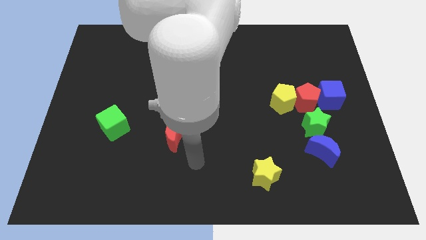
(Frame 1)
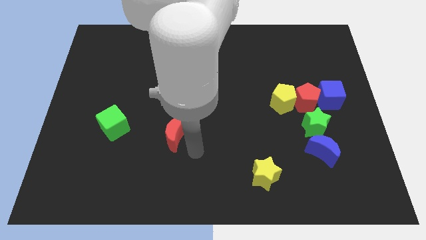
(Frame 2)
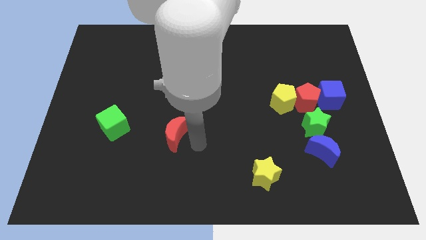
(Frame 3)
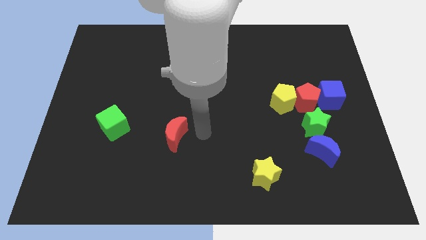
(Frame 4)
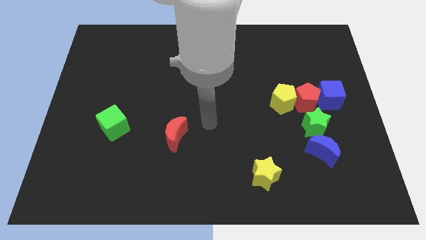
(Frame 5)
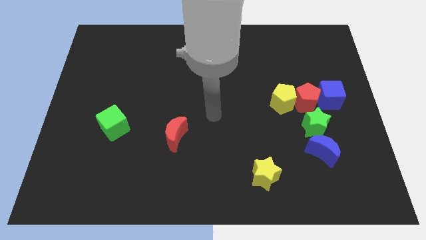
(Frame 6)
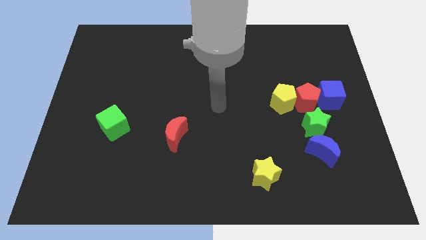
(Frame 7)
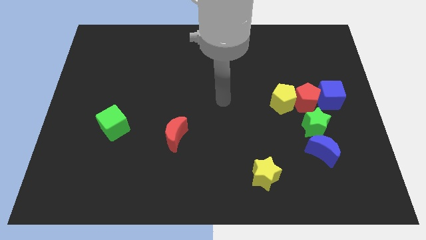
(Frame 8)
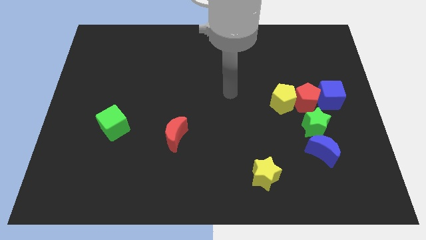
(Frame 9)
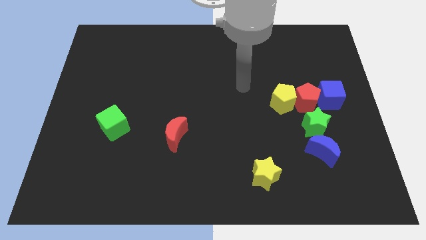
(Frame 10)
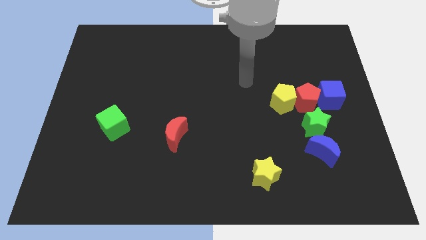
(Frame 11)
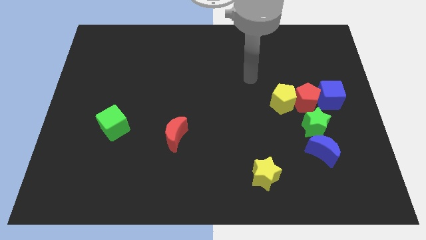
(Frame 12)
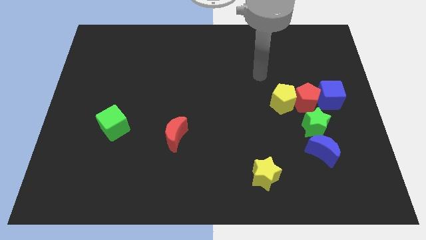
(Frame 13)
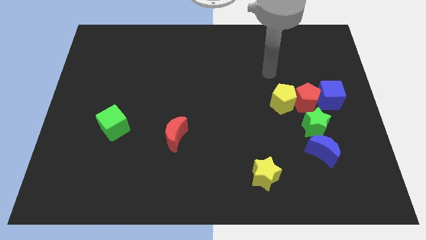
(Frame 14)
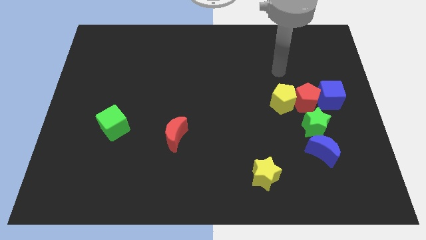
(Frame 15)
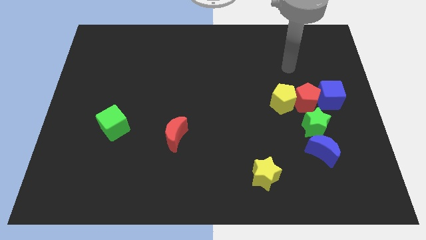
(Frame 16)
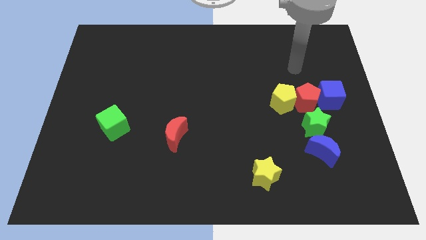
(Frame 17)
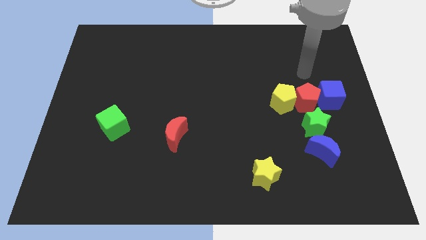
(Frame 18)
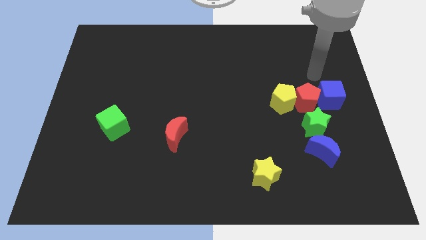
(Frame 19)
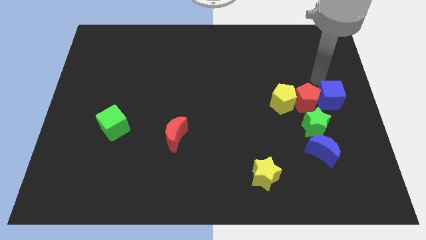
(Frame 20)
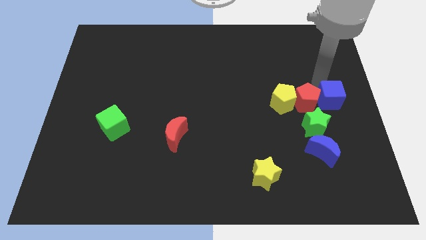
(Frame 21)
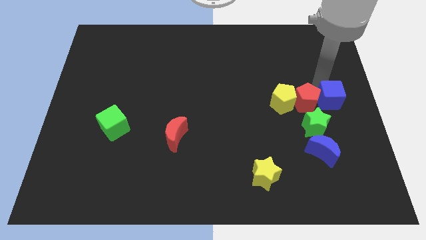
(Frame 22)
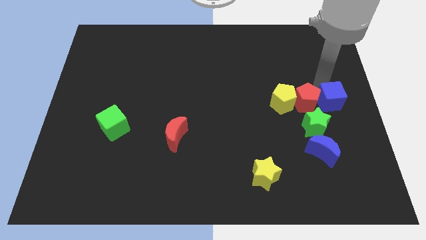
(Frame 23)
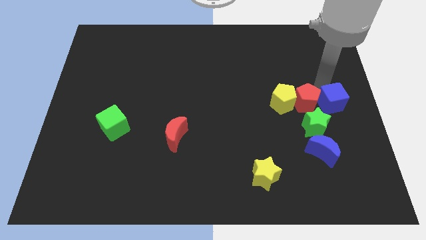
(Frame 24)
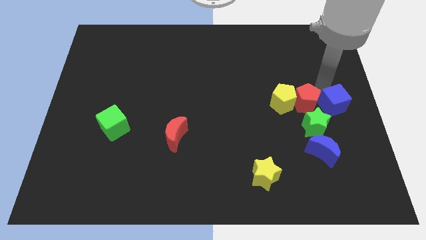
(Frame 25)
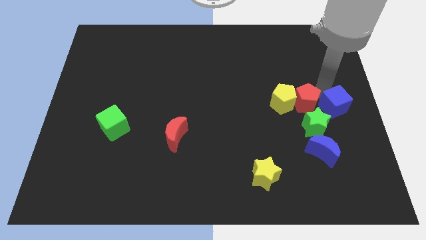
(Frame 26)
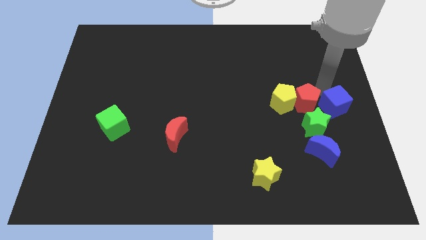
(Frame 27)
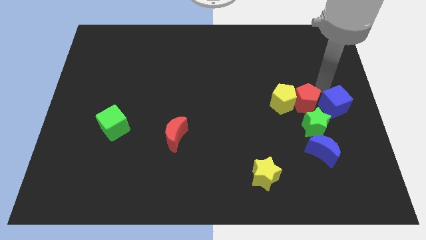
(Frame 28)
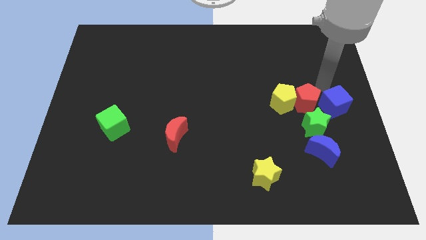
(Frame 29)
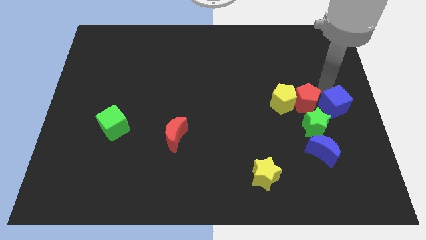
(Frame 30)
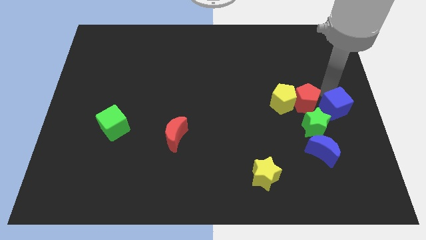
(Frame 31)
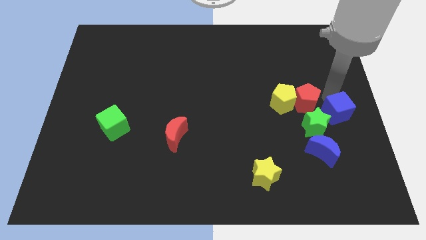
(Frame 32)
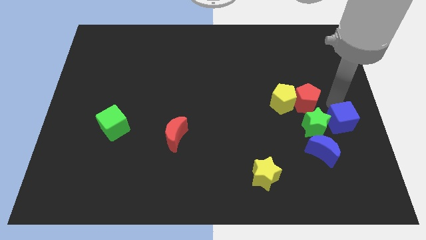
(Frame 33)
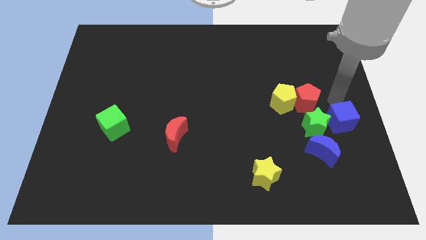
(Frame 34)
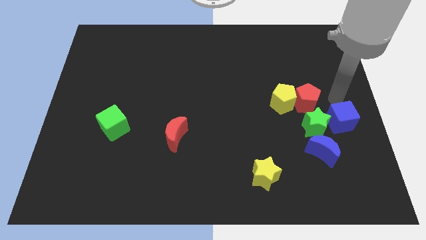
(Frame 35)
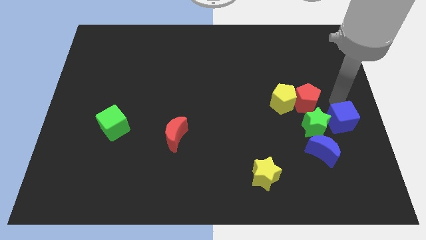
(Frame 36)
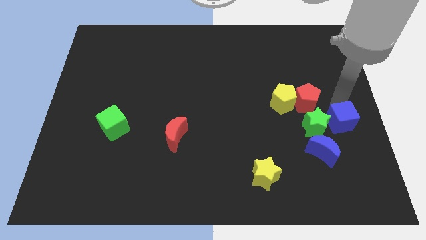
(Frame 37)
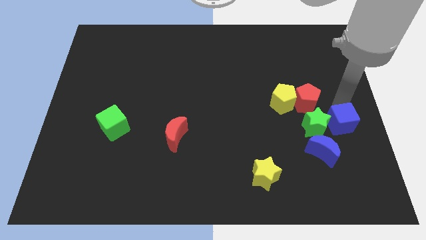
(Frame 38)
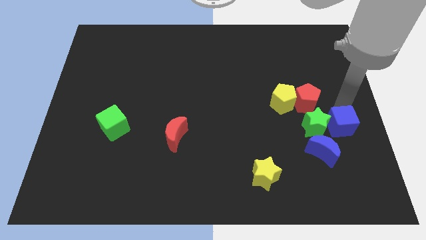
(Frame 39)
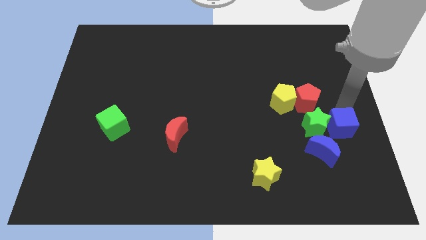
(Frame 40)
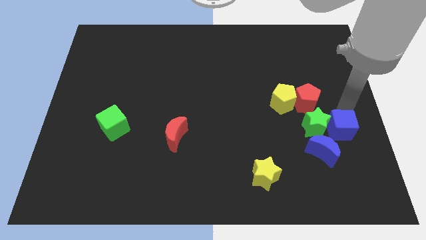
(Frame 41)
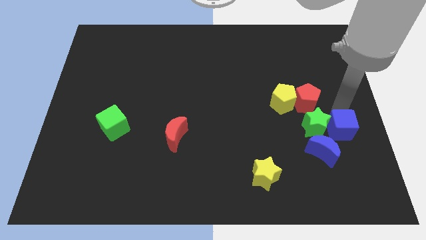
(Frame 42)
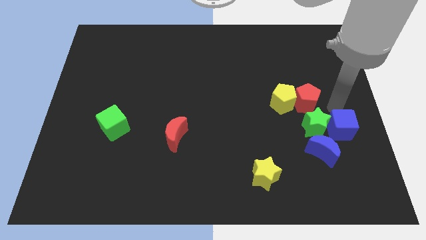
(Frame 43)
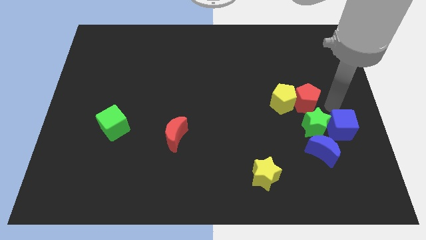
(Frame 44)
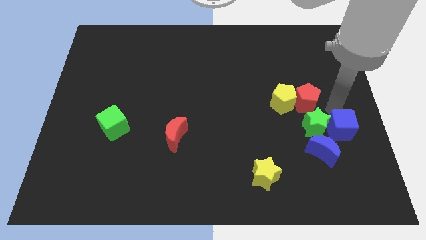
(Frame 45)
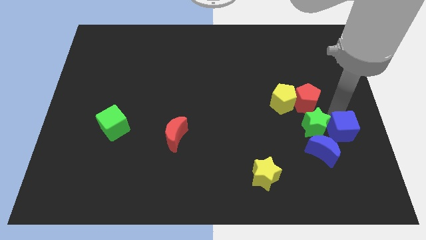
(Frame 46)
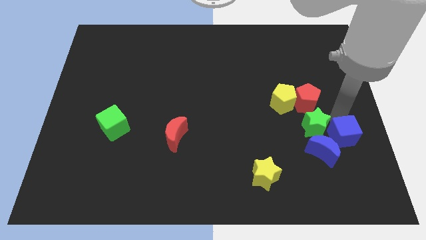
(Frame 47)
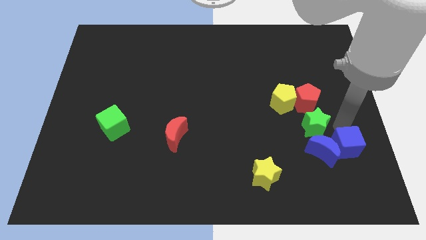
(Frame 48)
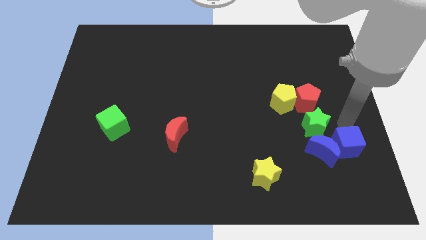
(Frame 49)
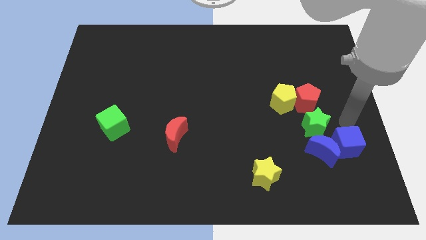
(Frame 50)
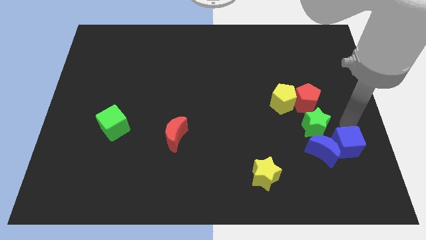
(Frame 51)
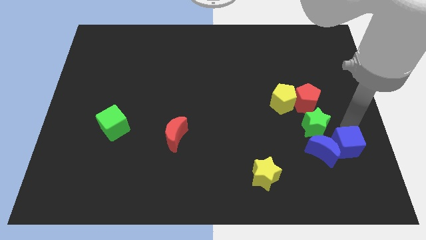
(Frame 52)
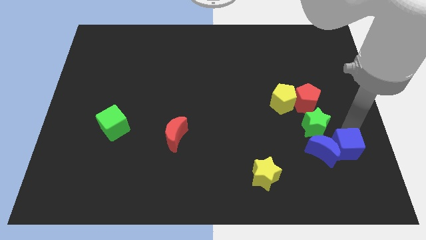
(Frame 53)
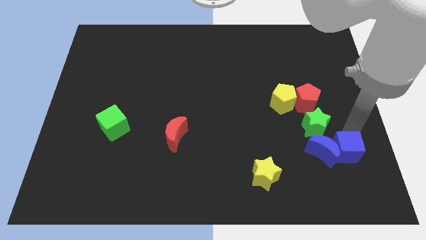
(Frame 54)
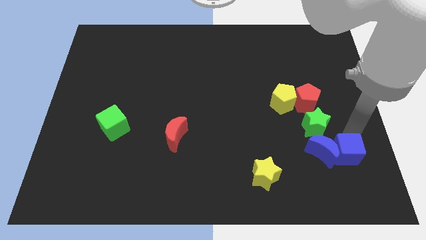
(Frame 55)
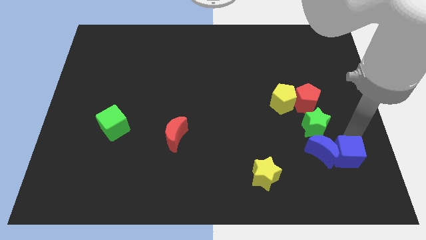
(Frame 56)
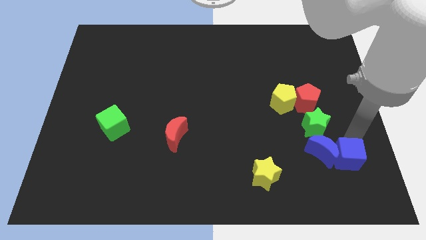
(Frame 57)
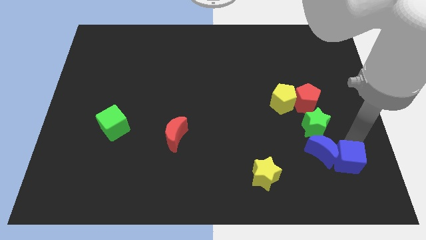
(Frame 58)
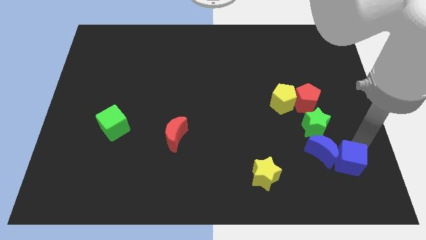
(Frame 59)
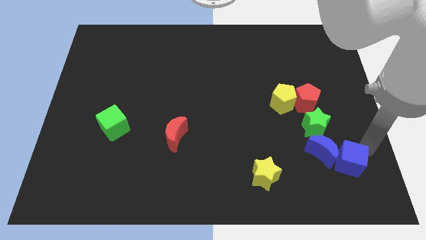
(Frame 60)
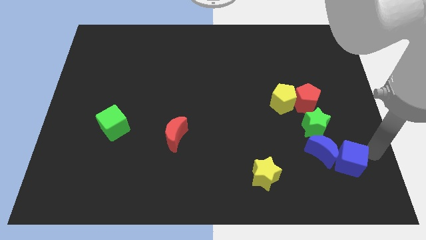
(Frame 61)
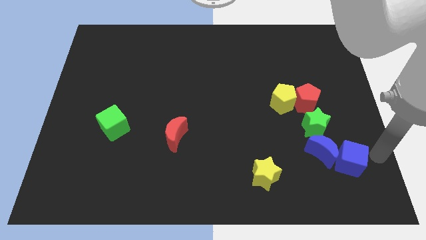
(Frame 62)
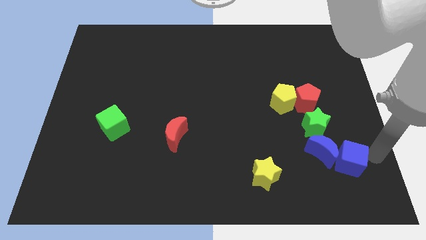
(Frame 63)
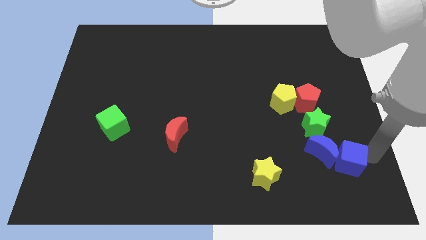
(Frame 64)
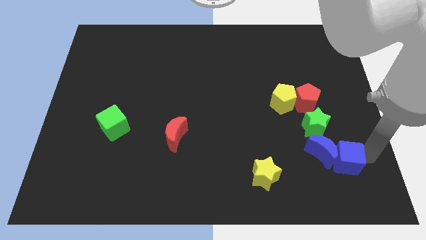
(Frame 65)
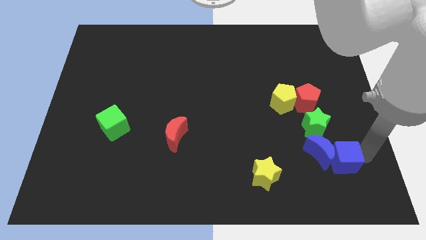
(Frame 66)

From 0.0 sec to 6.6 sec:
put the blue cube to the bottom of the green star

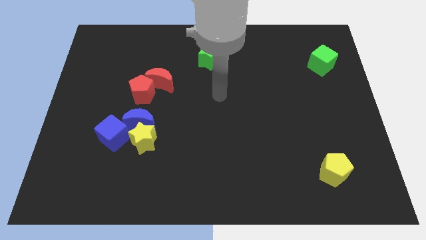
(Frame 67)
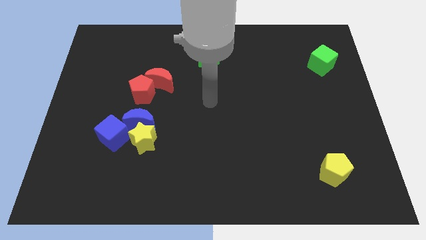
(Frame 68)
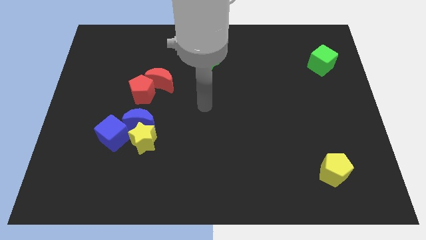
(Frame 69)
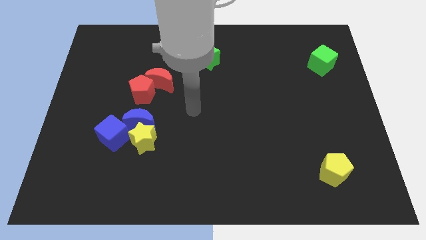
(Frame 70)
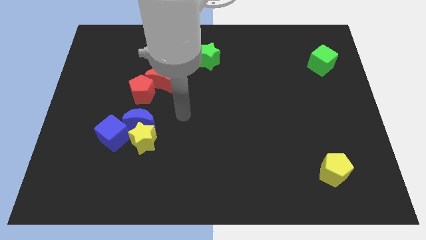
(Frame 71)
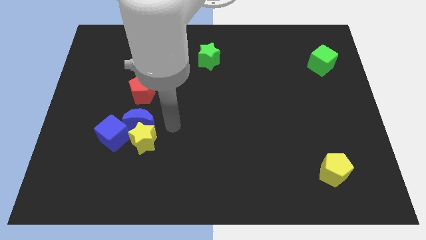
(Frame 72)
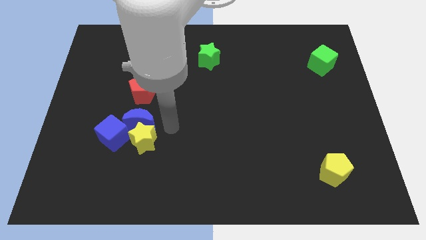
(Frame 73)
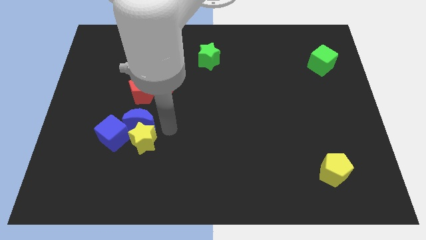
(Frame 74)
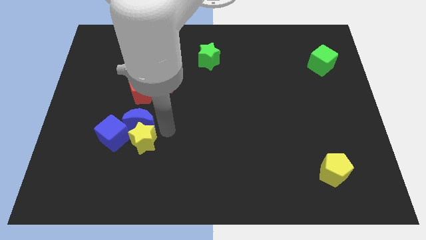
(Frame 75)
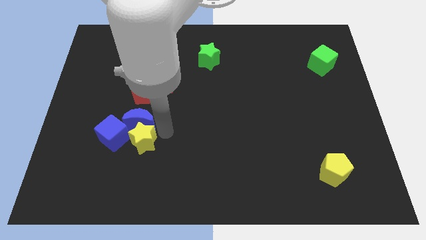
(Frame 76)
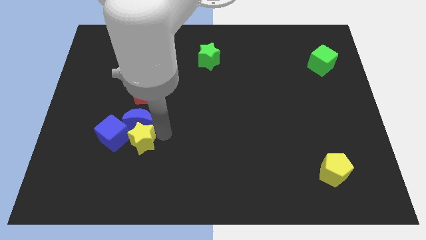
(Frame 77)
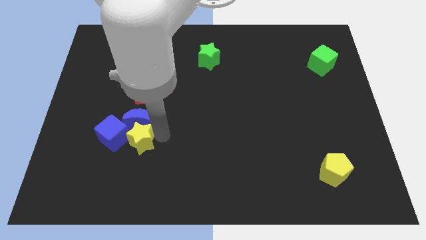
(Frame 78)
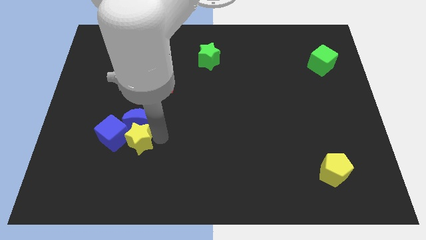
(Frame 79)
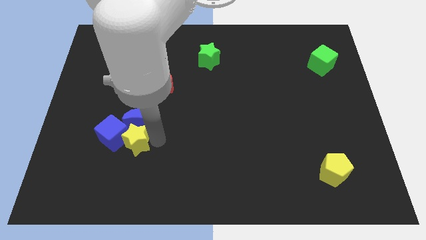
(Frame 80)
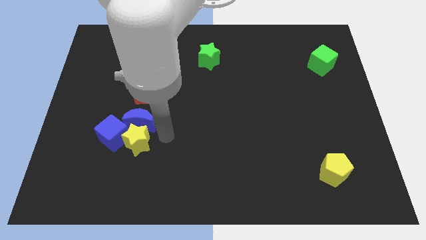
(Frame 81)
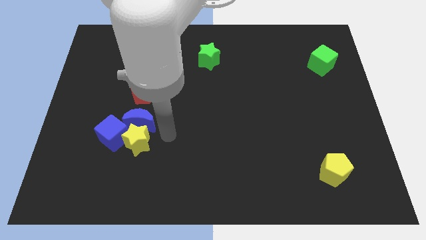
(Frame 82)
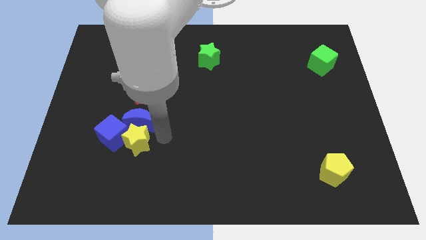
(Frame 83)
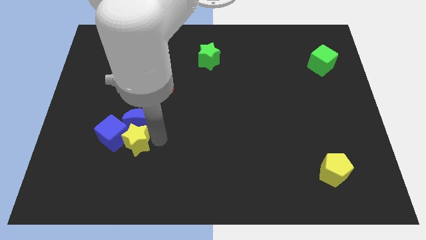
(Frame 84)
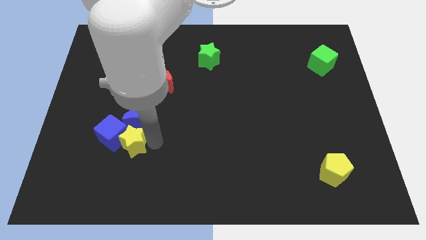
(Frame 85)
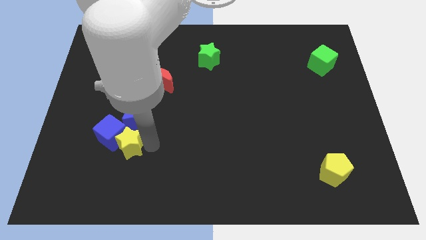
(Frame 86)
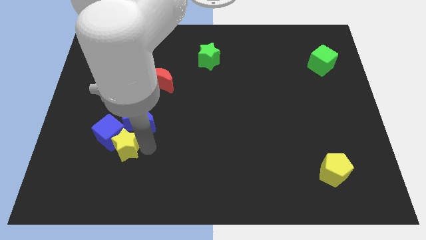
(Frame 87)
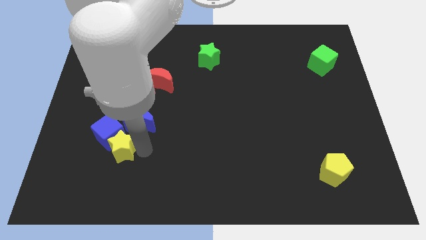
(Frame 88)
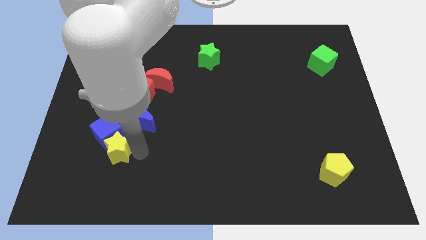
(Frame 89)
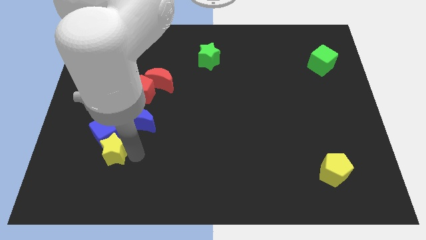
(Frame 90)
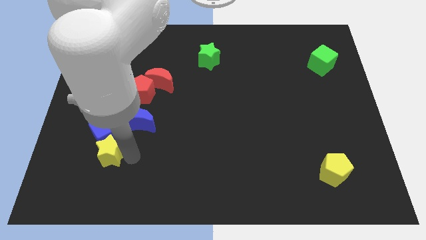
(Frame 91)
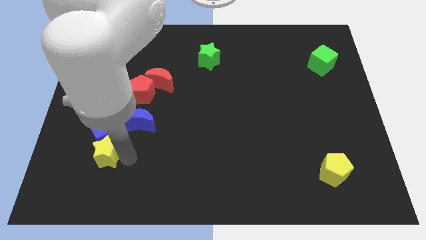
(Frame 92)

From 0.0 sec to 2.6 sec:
move the yellow star to the bottom left of the blue cube
